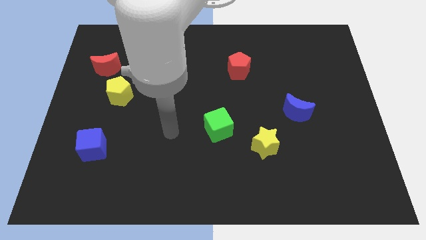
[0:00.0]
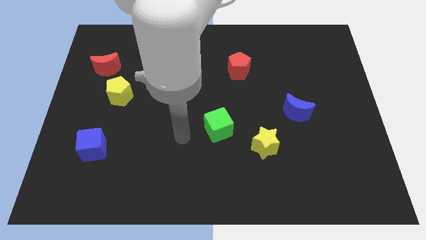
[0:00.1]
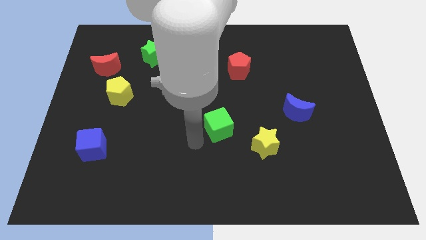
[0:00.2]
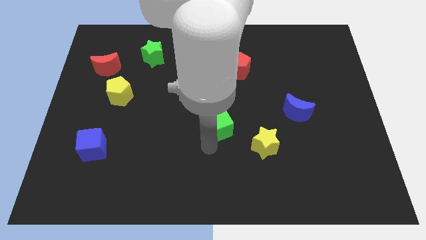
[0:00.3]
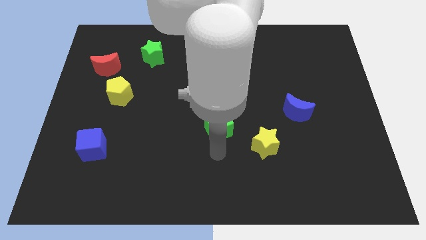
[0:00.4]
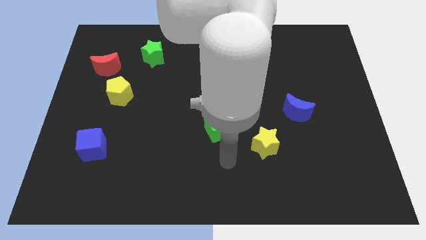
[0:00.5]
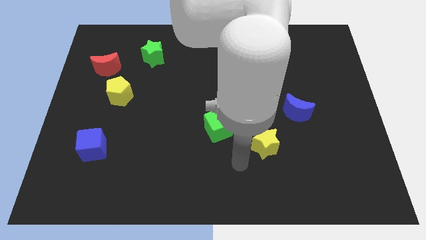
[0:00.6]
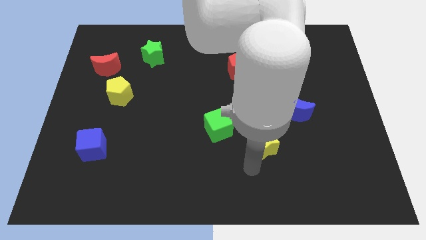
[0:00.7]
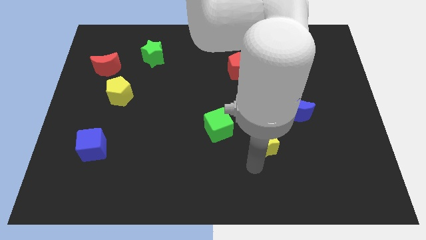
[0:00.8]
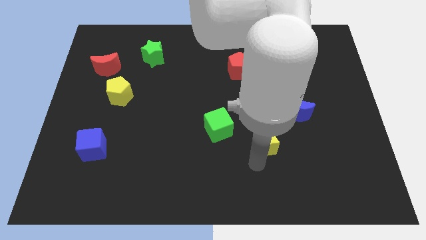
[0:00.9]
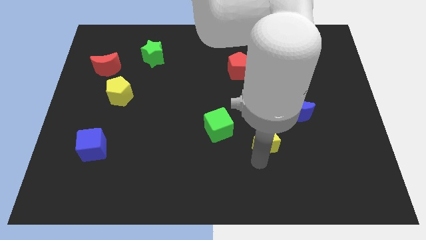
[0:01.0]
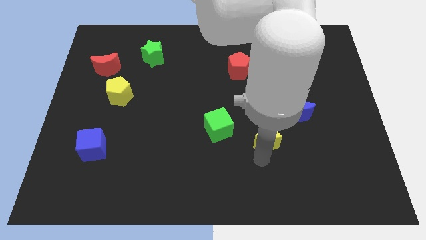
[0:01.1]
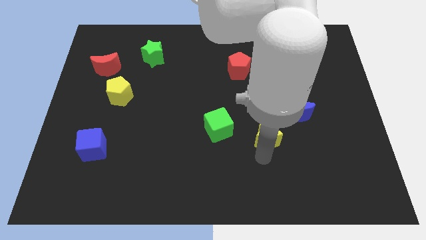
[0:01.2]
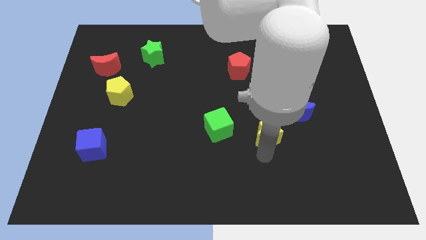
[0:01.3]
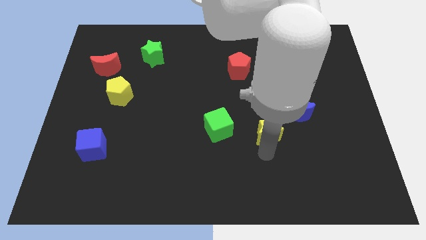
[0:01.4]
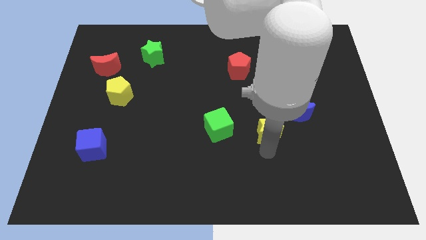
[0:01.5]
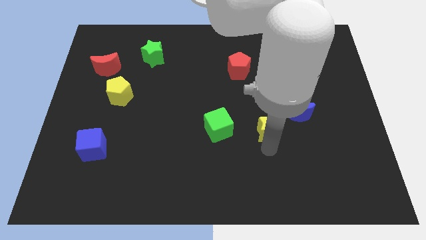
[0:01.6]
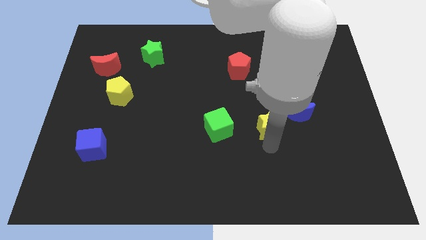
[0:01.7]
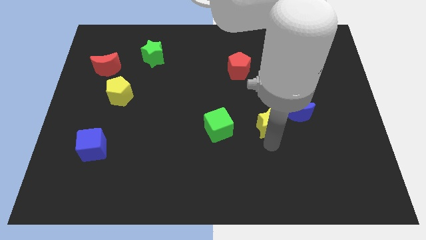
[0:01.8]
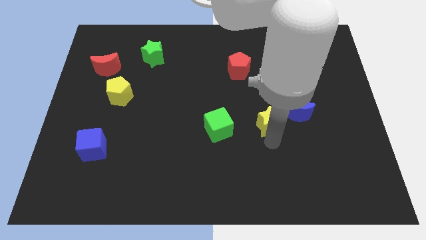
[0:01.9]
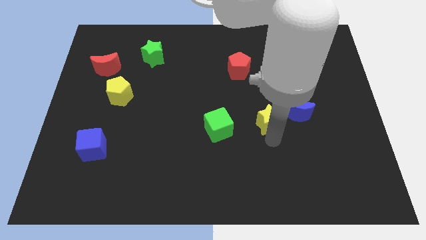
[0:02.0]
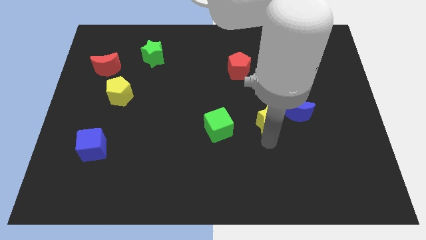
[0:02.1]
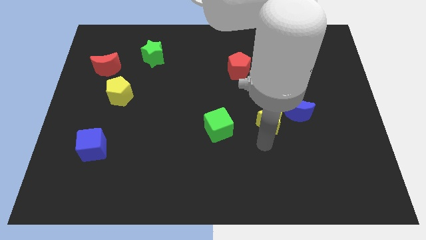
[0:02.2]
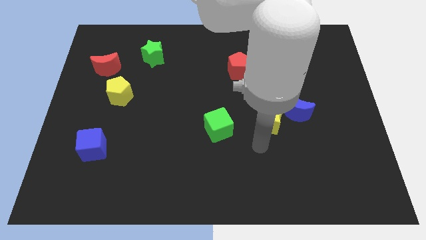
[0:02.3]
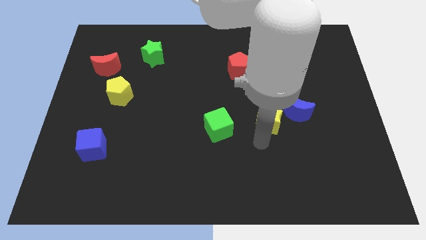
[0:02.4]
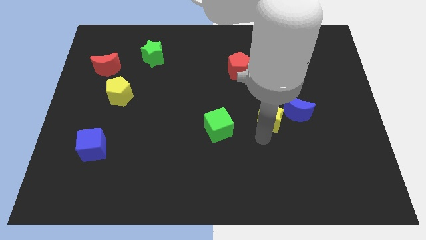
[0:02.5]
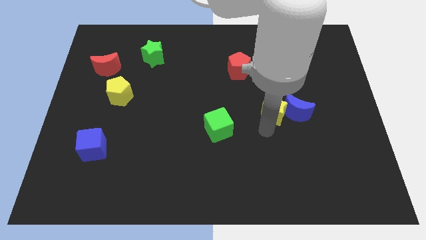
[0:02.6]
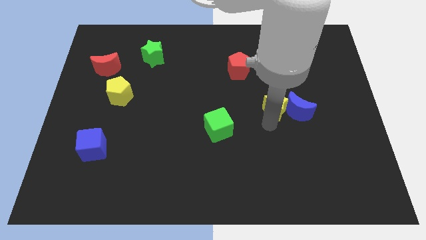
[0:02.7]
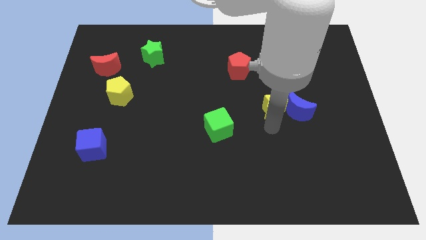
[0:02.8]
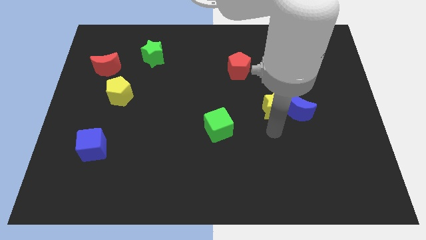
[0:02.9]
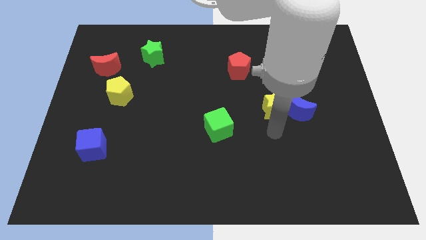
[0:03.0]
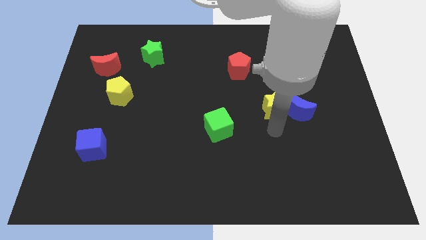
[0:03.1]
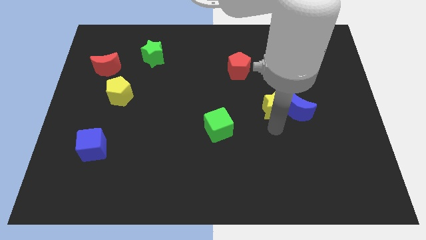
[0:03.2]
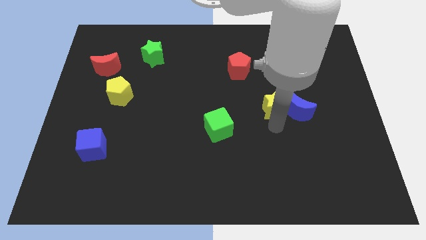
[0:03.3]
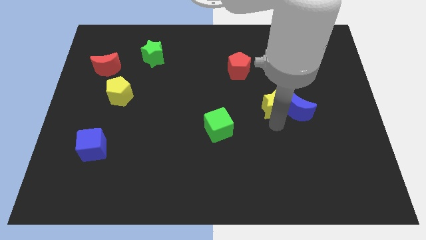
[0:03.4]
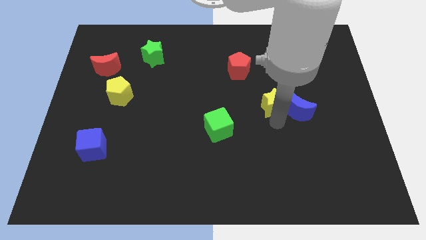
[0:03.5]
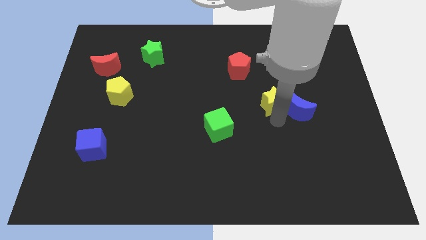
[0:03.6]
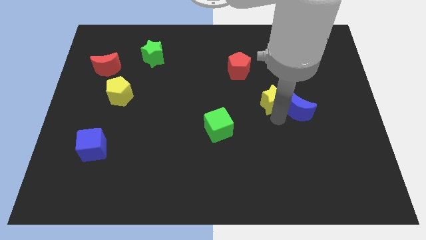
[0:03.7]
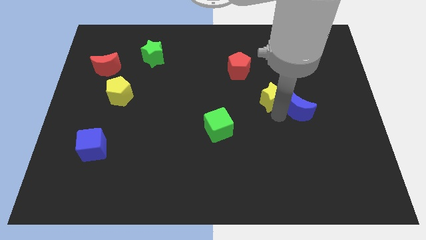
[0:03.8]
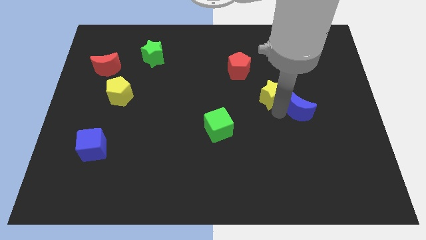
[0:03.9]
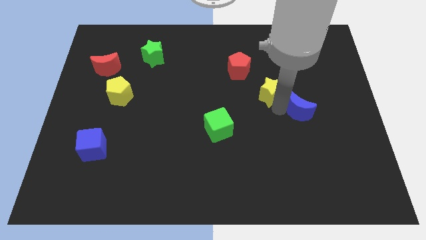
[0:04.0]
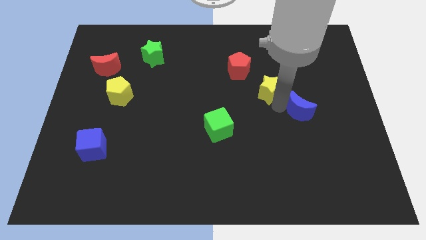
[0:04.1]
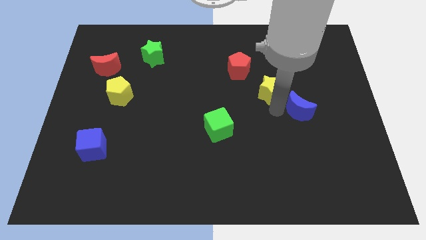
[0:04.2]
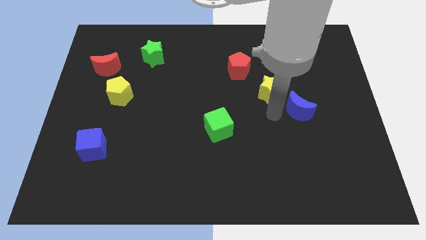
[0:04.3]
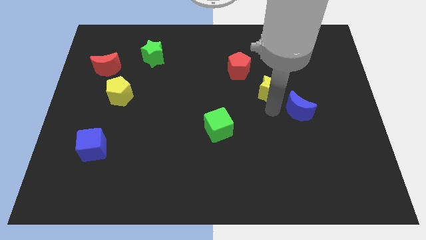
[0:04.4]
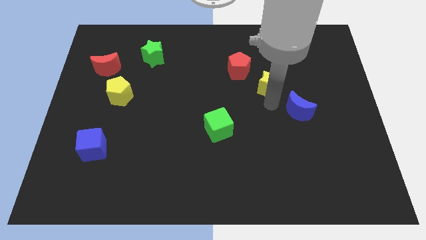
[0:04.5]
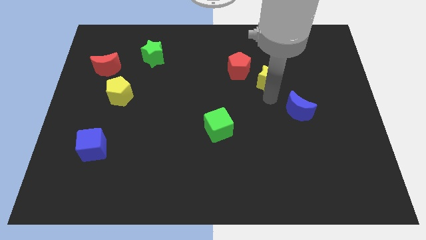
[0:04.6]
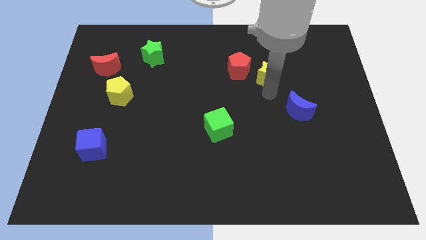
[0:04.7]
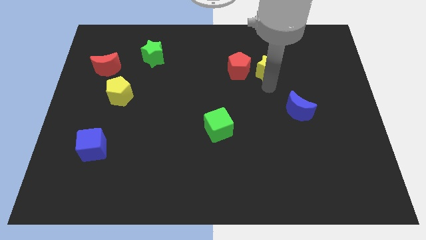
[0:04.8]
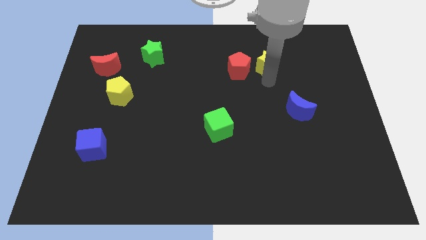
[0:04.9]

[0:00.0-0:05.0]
slide the yellow star diagonally up and to the right of the red pentagon

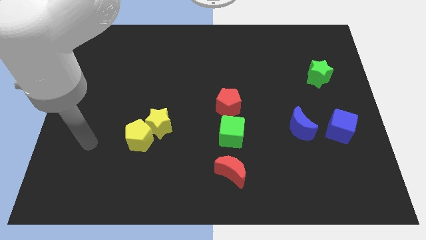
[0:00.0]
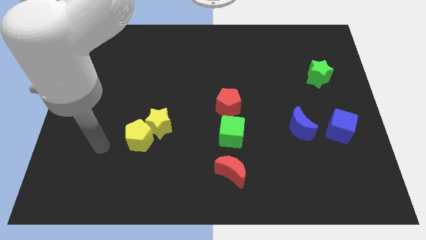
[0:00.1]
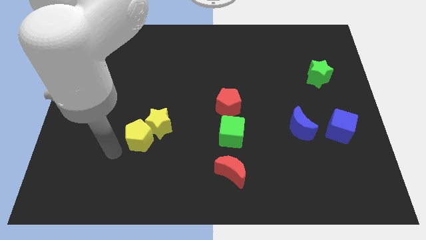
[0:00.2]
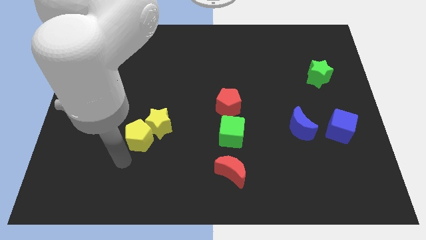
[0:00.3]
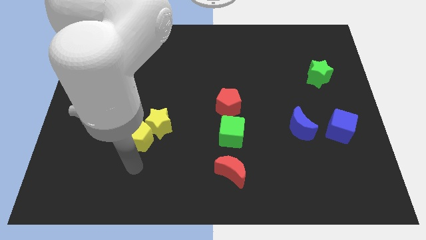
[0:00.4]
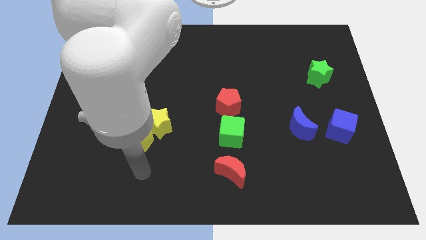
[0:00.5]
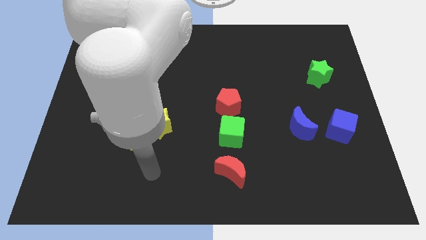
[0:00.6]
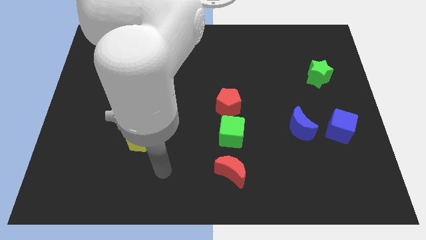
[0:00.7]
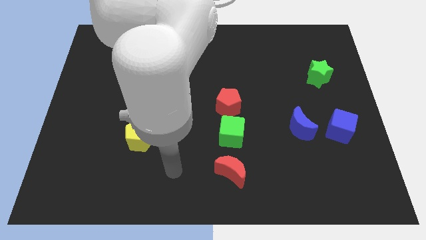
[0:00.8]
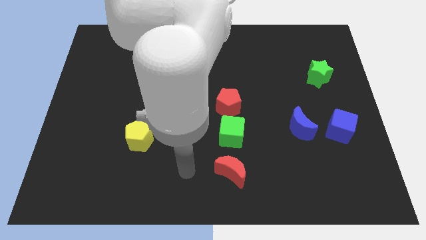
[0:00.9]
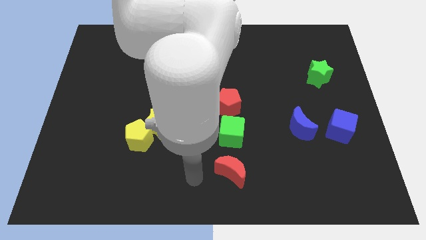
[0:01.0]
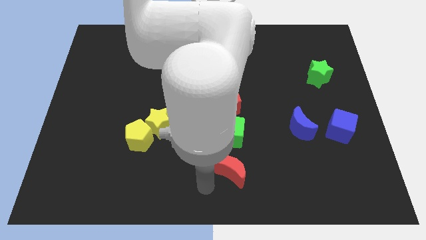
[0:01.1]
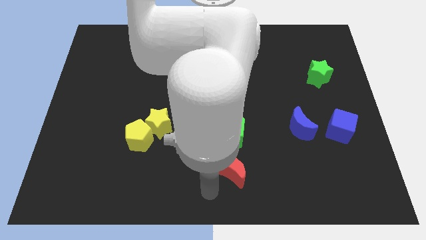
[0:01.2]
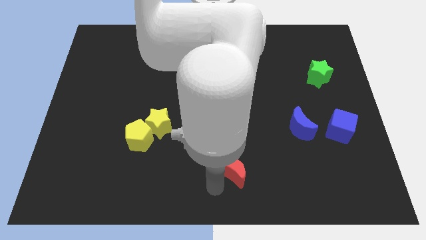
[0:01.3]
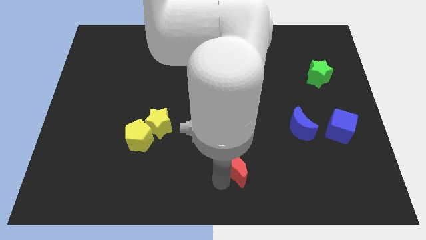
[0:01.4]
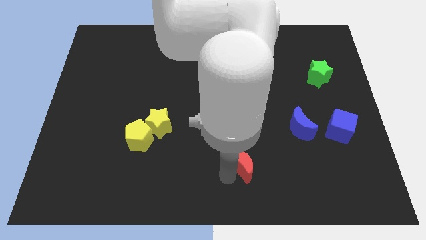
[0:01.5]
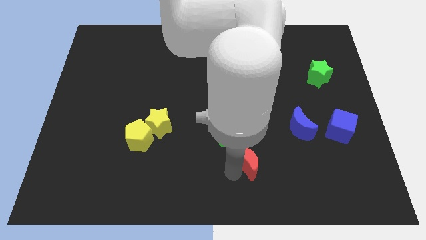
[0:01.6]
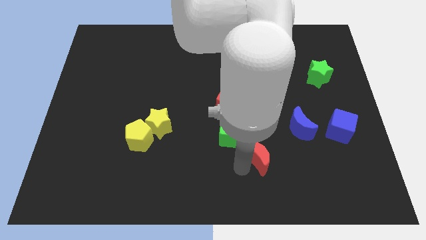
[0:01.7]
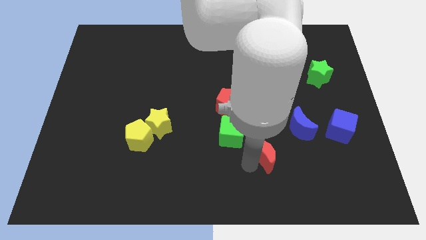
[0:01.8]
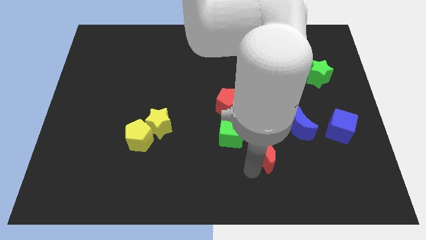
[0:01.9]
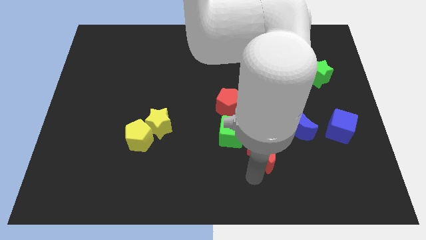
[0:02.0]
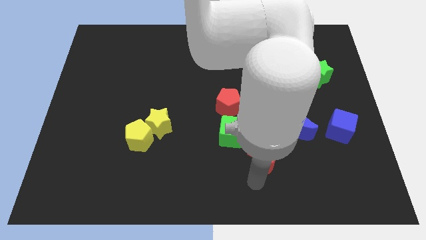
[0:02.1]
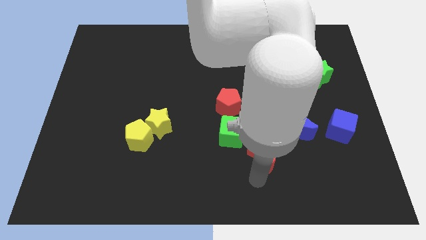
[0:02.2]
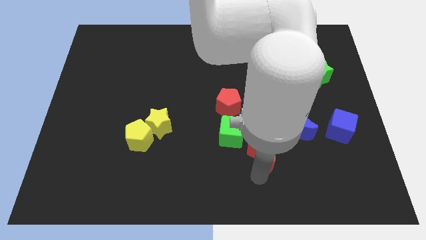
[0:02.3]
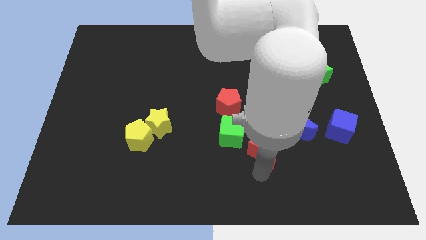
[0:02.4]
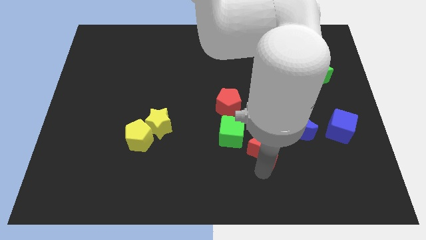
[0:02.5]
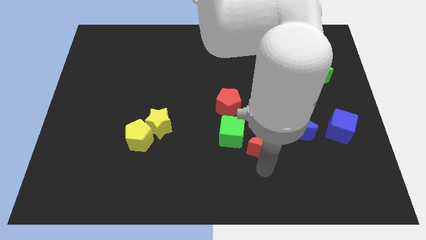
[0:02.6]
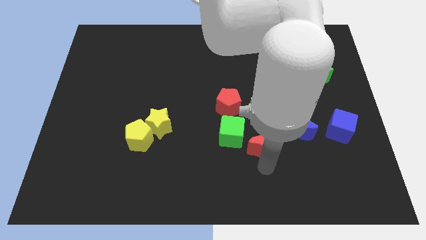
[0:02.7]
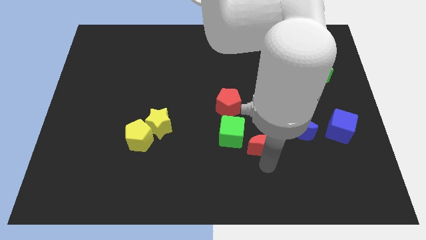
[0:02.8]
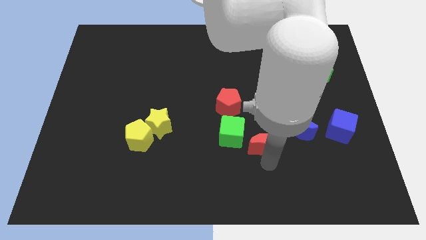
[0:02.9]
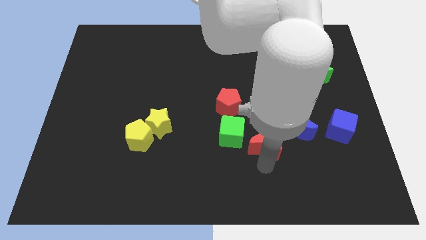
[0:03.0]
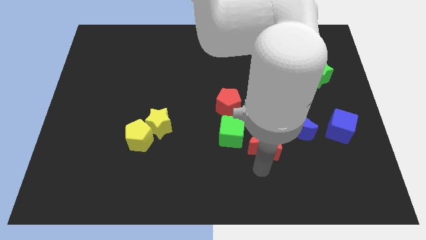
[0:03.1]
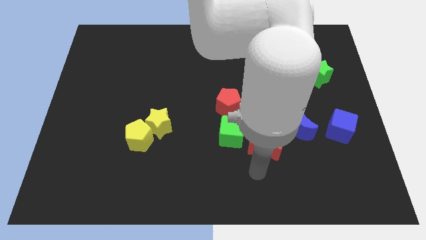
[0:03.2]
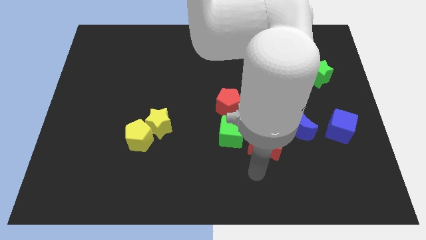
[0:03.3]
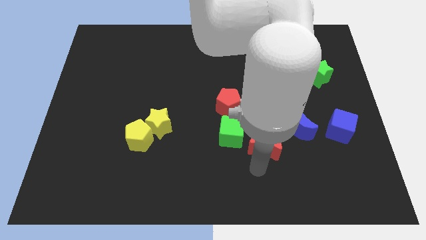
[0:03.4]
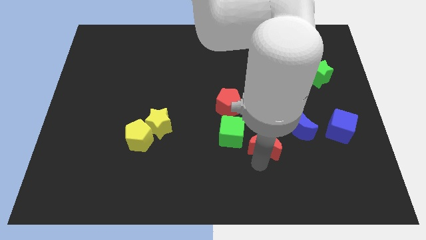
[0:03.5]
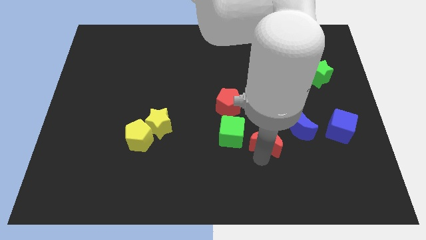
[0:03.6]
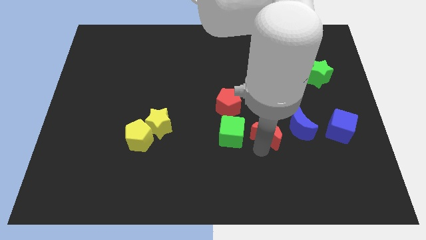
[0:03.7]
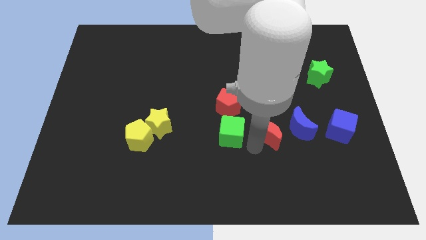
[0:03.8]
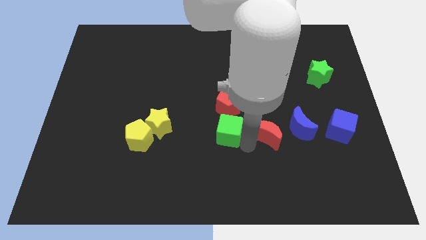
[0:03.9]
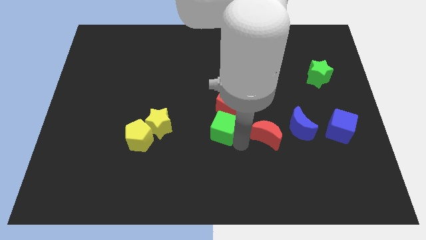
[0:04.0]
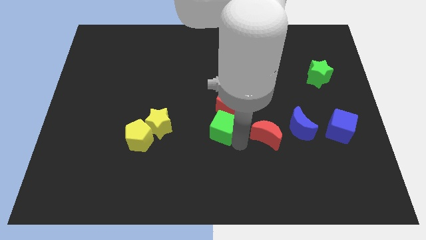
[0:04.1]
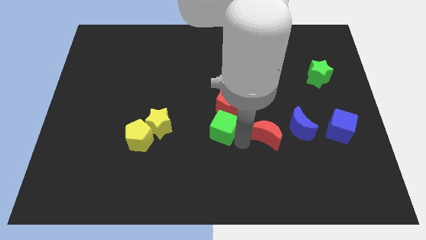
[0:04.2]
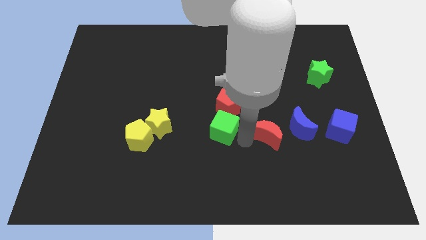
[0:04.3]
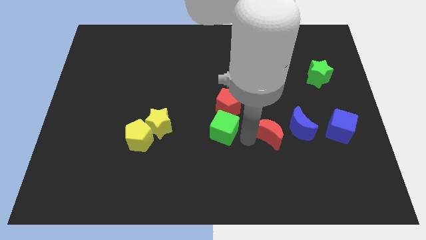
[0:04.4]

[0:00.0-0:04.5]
slide the red moon left of the blue cube
